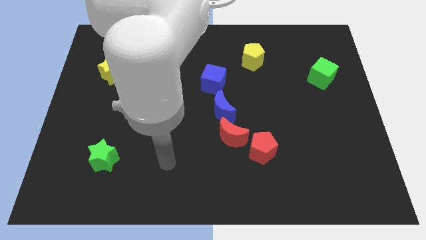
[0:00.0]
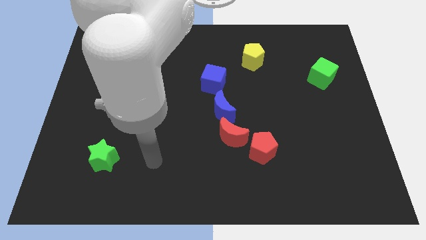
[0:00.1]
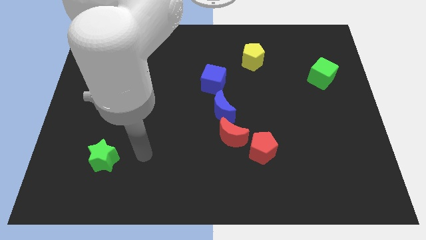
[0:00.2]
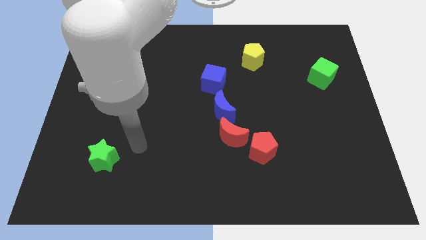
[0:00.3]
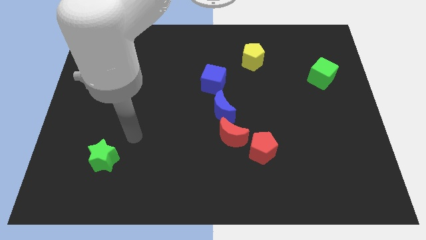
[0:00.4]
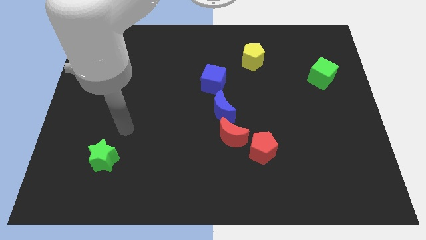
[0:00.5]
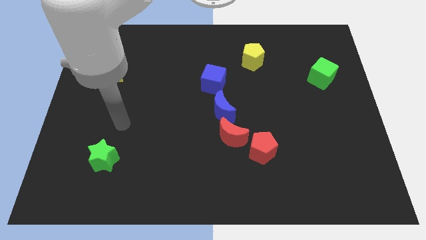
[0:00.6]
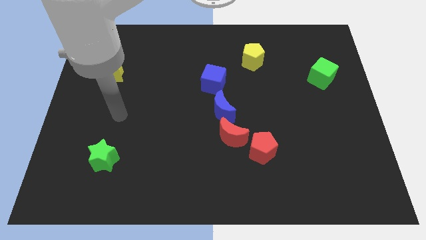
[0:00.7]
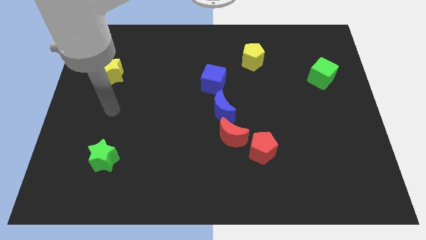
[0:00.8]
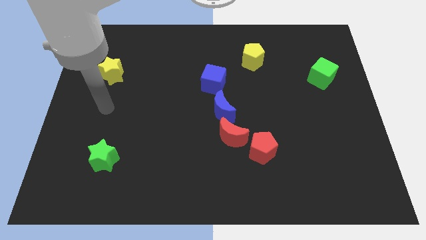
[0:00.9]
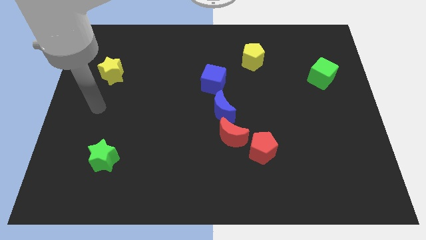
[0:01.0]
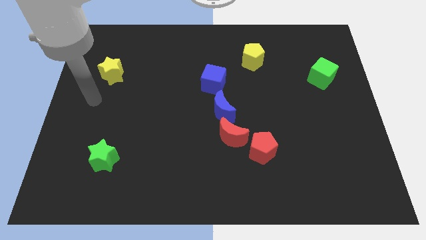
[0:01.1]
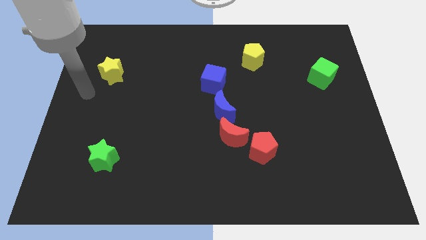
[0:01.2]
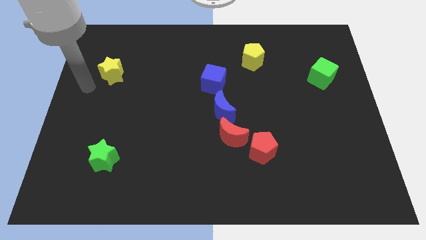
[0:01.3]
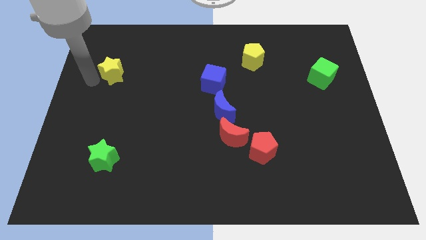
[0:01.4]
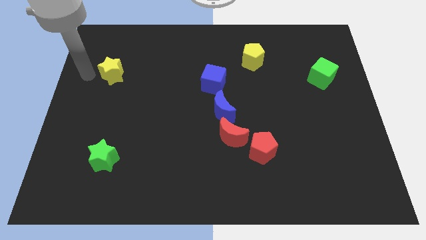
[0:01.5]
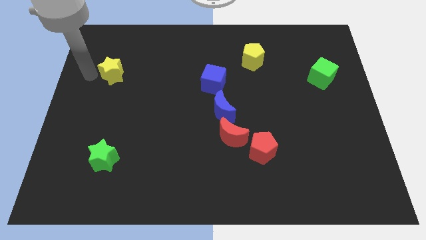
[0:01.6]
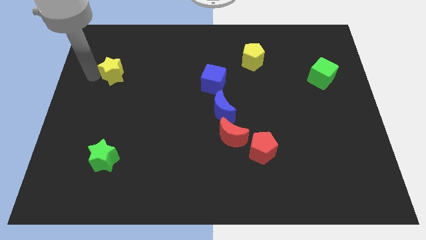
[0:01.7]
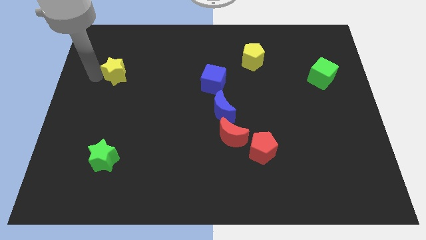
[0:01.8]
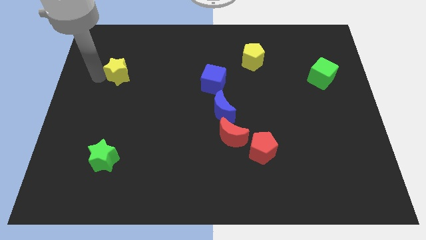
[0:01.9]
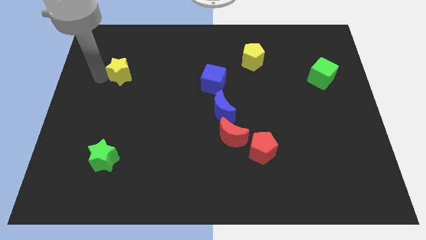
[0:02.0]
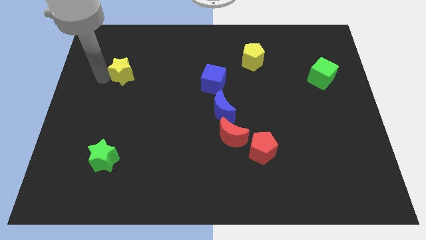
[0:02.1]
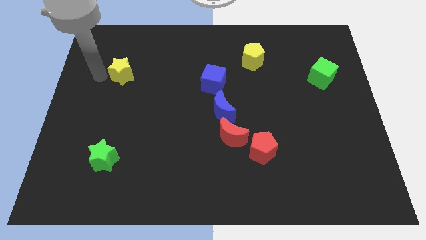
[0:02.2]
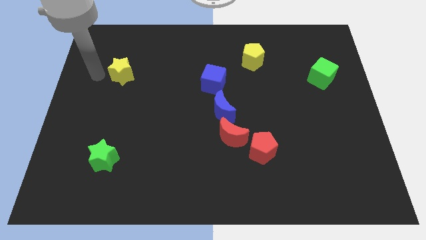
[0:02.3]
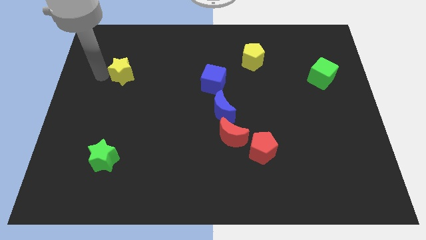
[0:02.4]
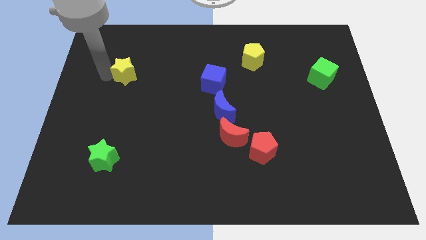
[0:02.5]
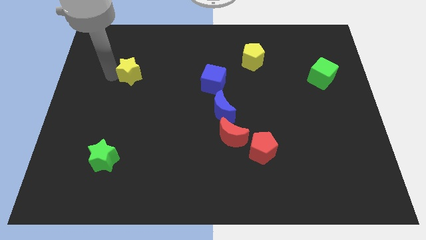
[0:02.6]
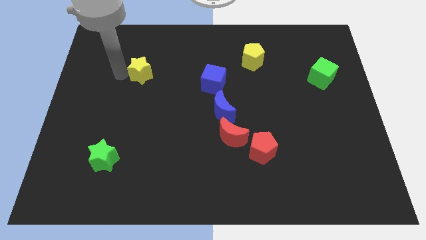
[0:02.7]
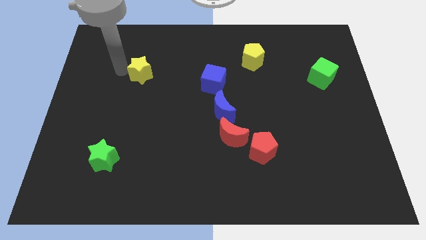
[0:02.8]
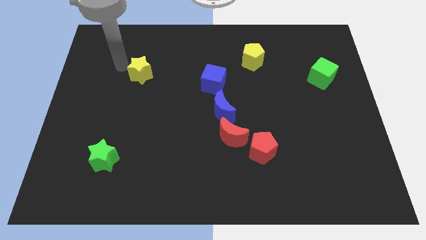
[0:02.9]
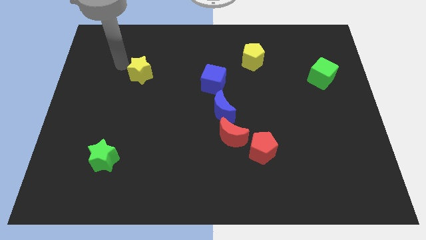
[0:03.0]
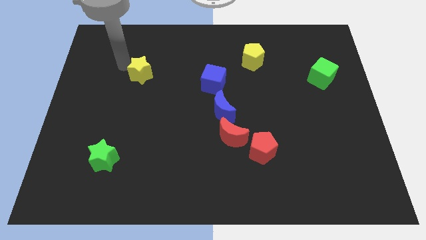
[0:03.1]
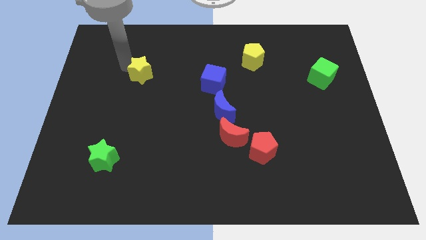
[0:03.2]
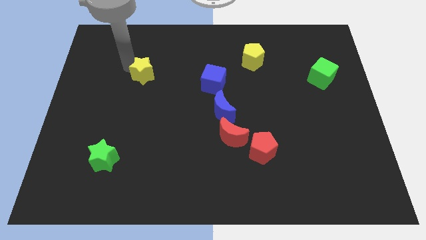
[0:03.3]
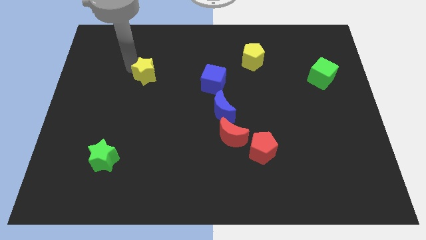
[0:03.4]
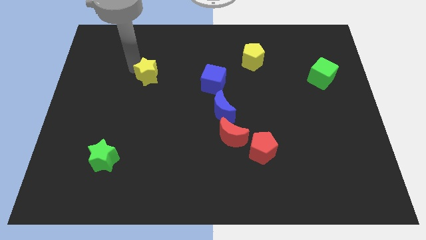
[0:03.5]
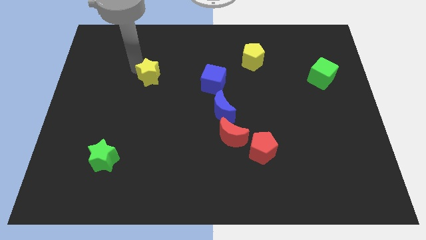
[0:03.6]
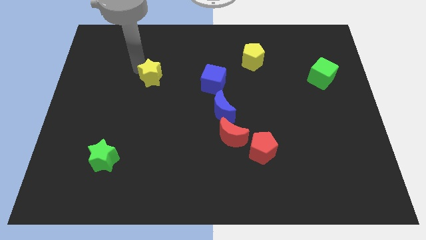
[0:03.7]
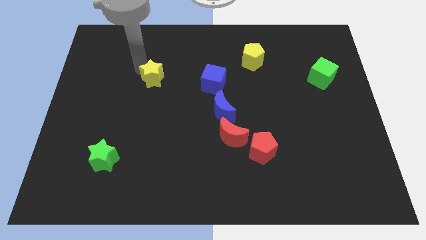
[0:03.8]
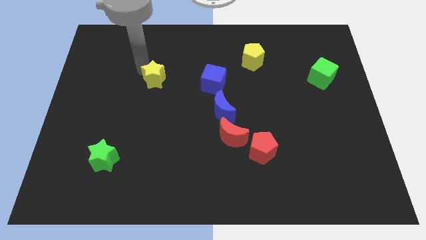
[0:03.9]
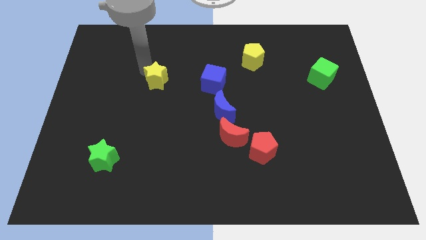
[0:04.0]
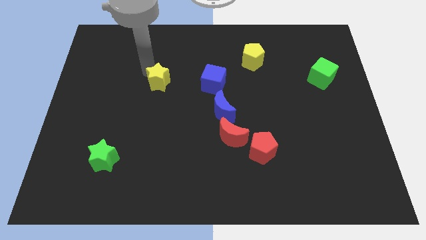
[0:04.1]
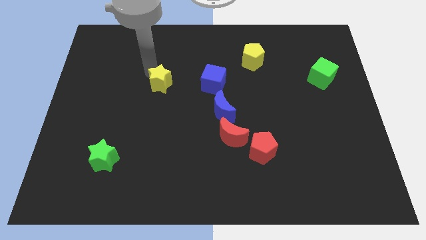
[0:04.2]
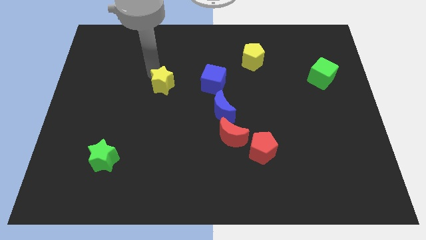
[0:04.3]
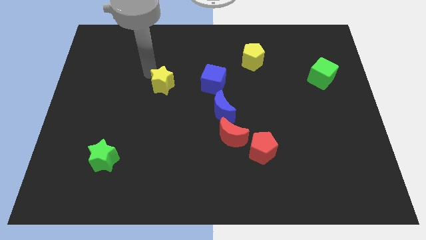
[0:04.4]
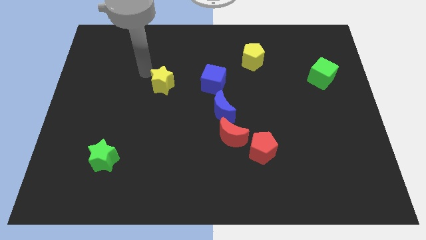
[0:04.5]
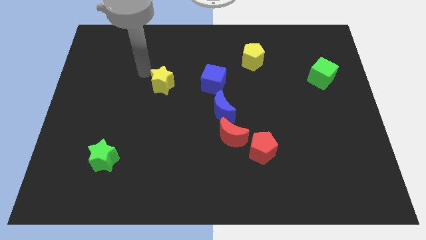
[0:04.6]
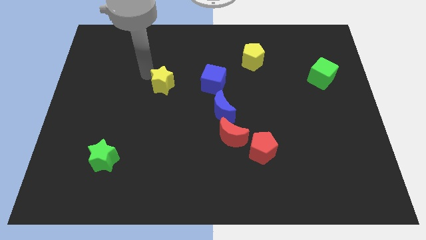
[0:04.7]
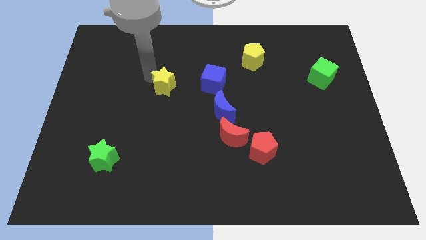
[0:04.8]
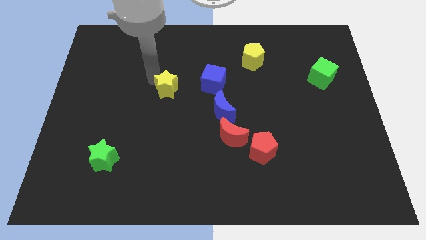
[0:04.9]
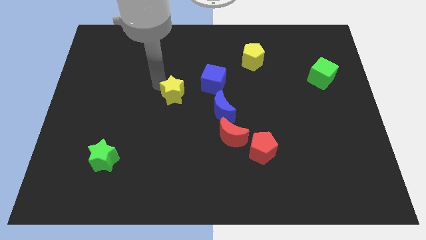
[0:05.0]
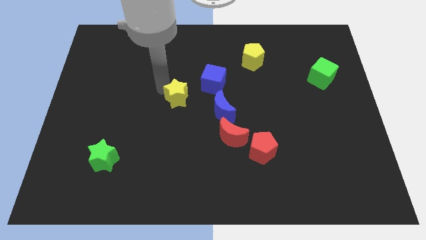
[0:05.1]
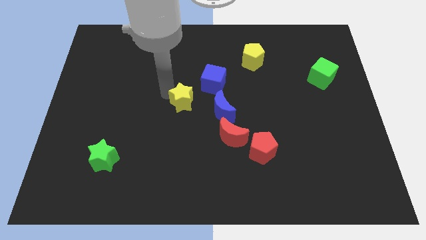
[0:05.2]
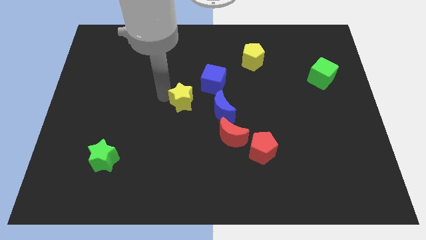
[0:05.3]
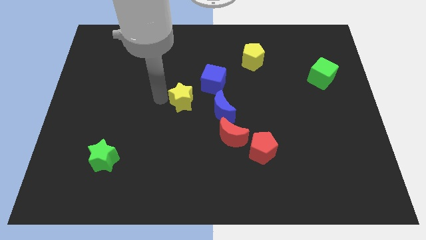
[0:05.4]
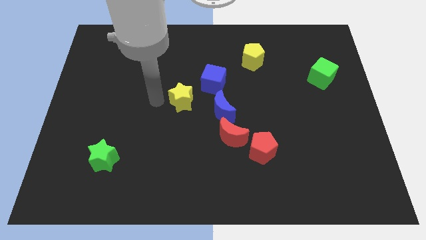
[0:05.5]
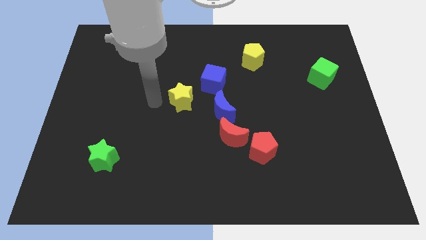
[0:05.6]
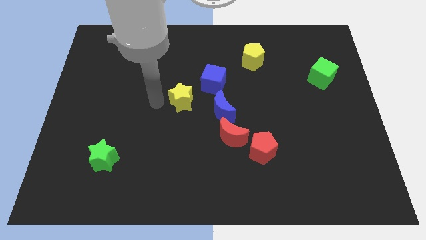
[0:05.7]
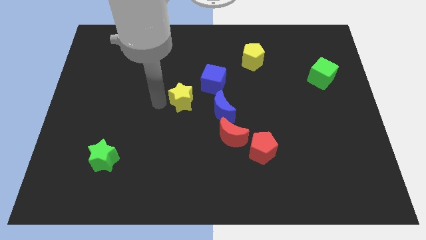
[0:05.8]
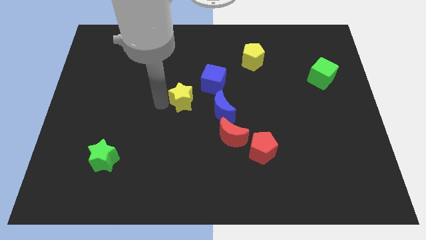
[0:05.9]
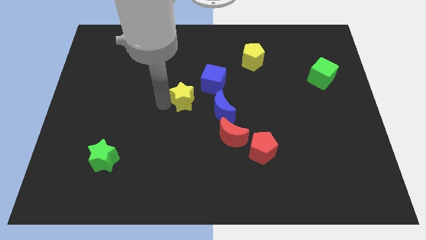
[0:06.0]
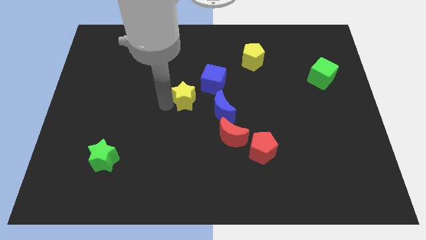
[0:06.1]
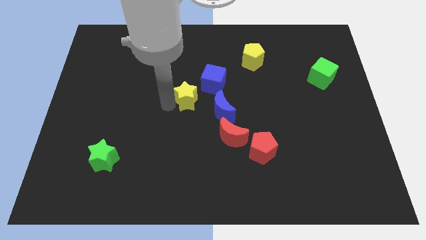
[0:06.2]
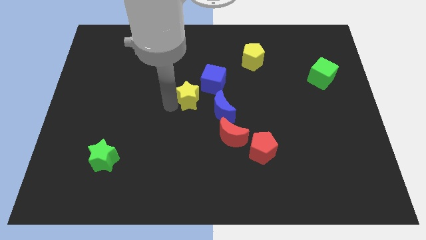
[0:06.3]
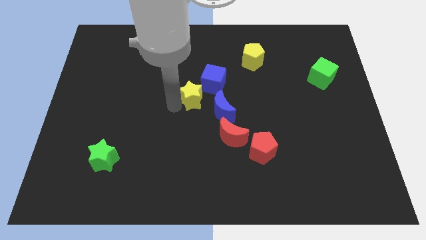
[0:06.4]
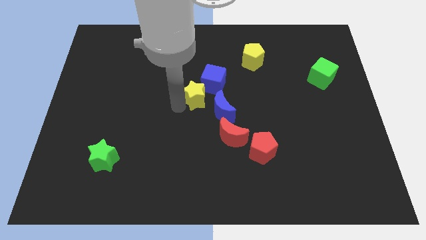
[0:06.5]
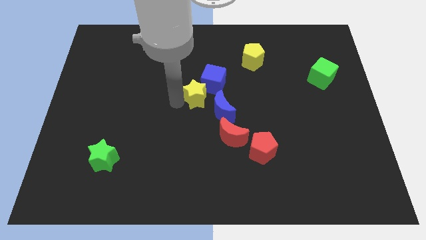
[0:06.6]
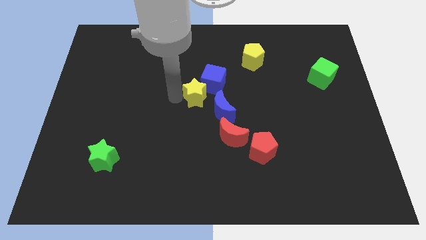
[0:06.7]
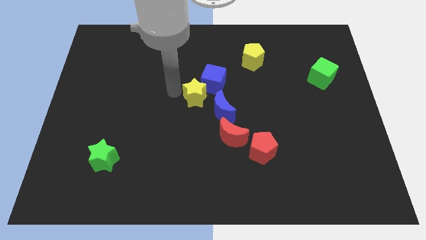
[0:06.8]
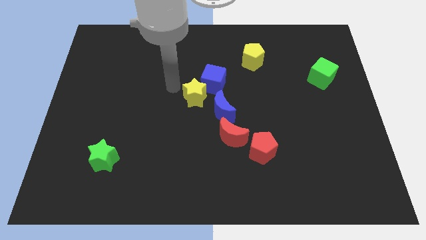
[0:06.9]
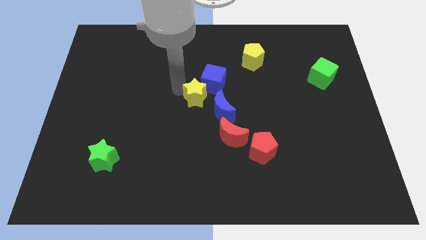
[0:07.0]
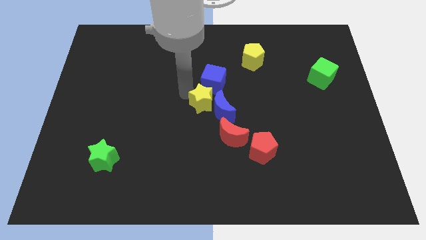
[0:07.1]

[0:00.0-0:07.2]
slide the yellow star next to the blue moon
